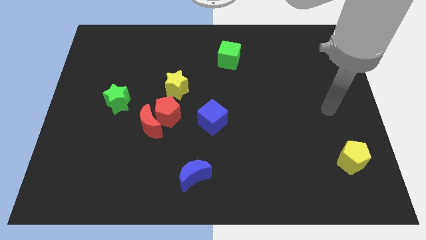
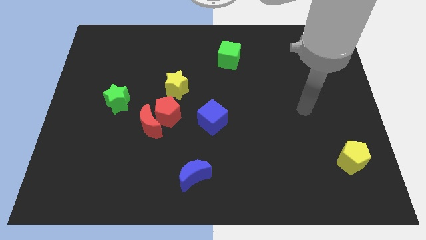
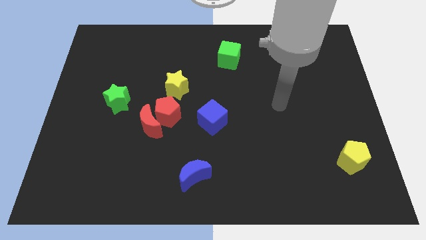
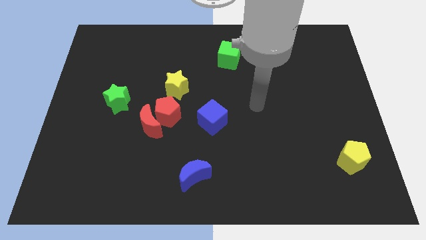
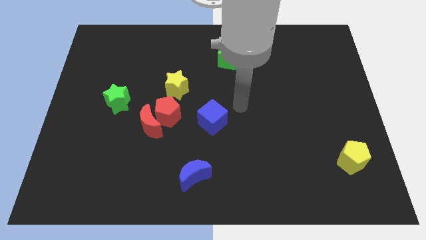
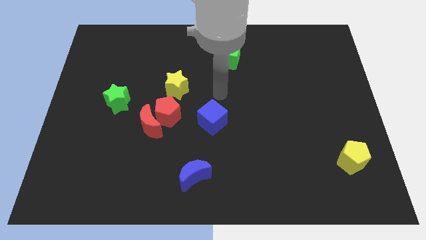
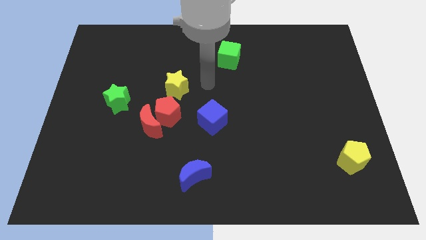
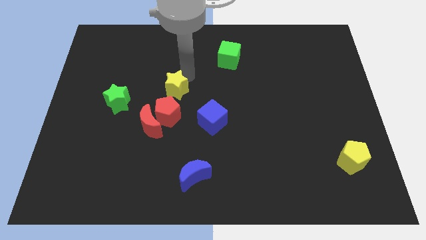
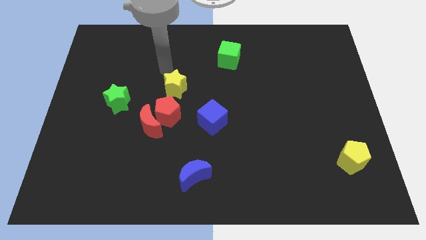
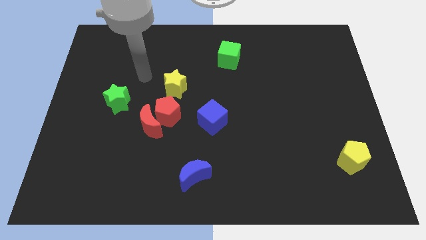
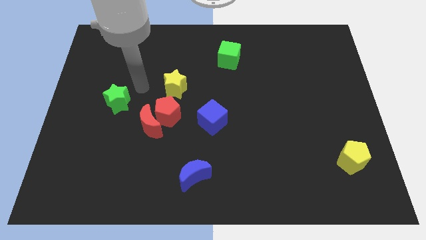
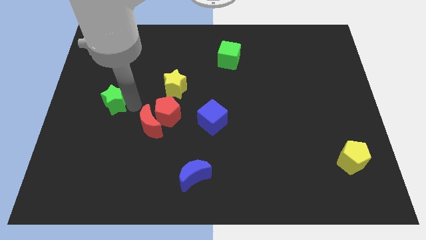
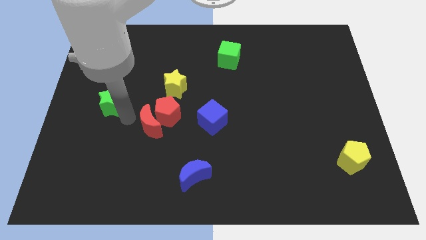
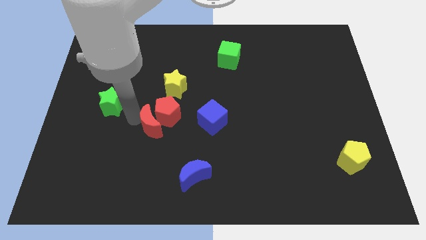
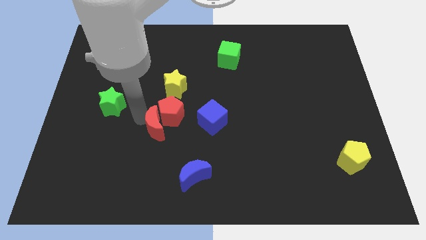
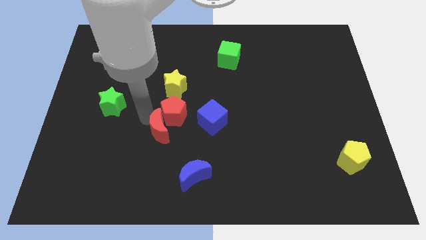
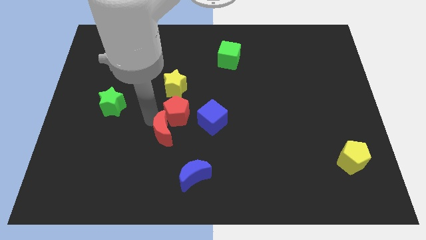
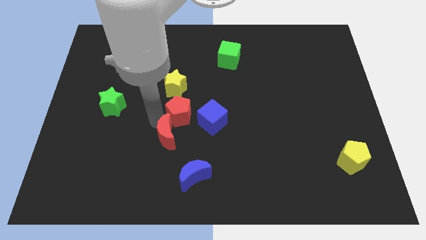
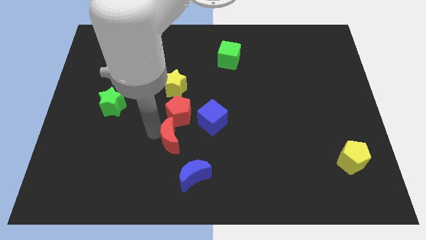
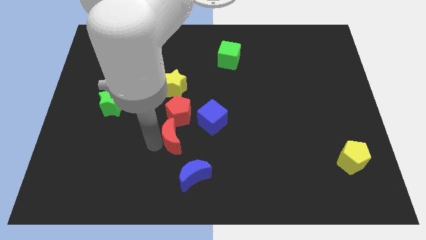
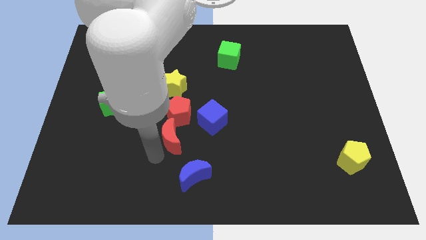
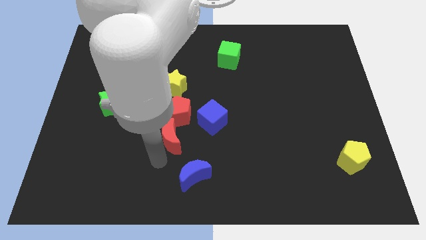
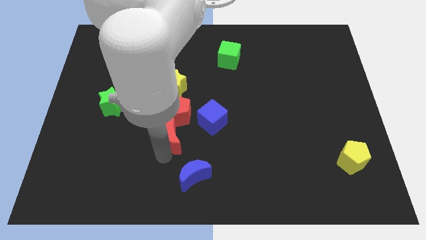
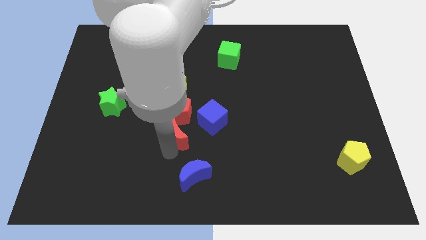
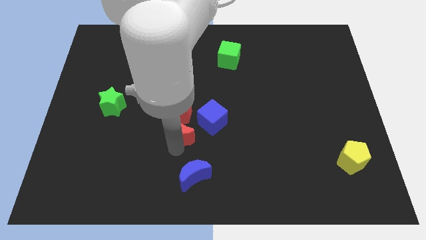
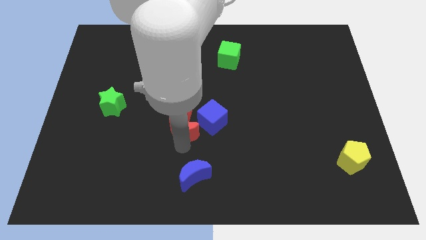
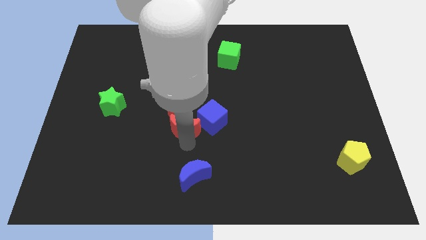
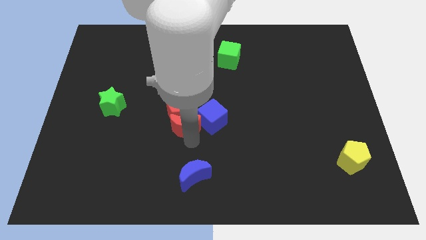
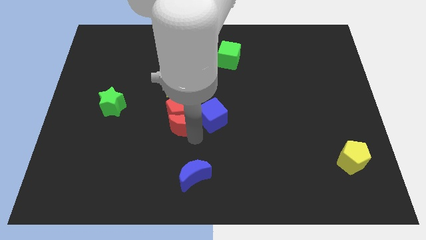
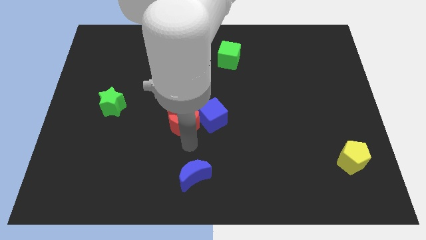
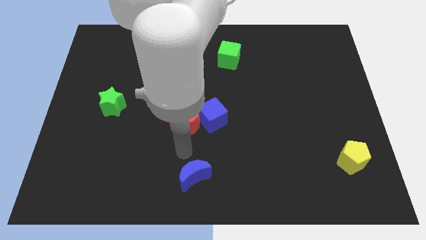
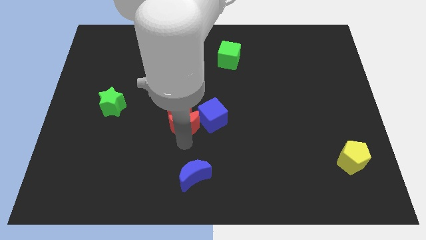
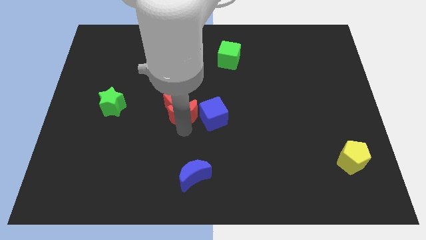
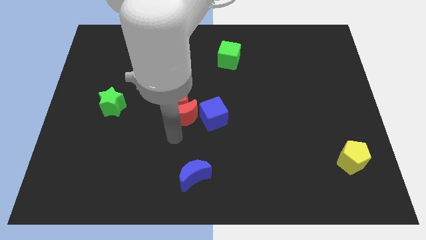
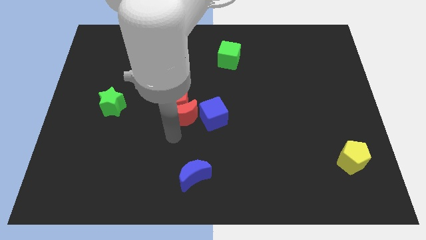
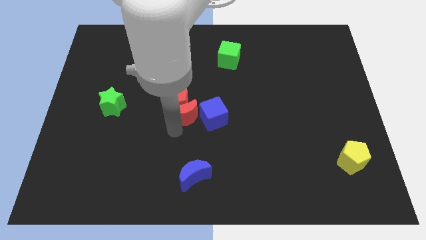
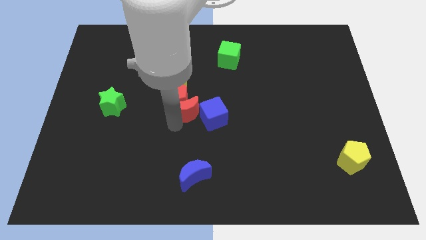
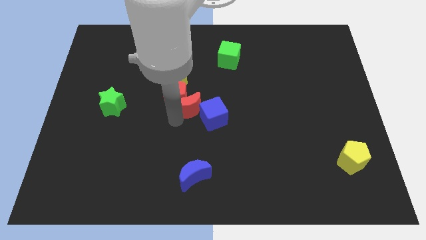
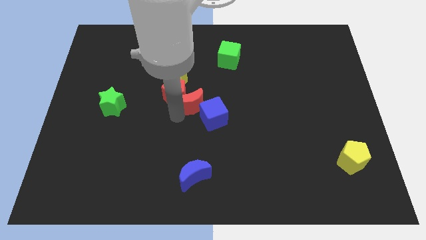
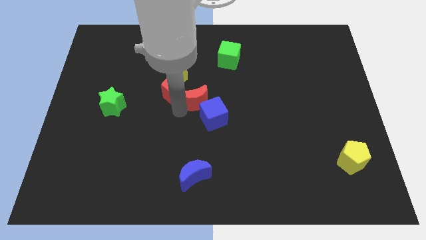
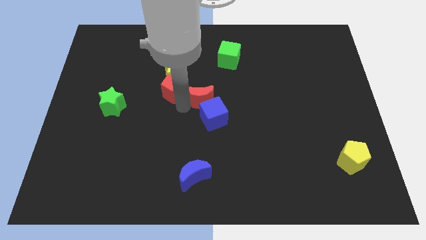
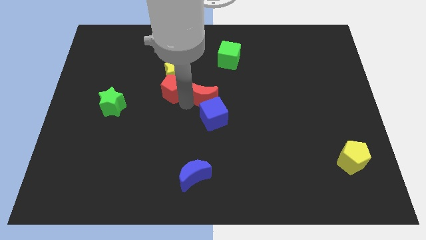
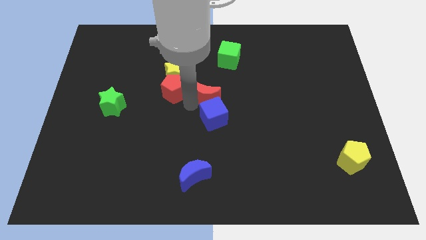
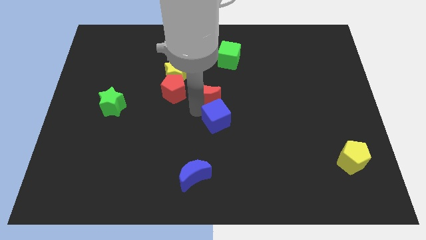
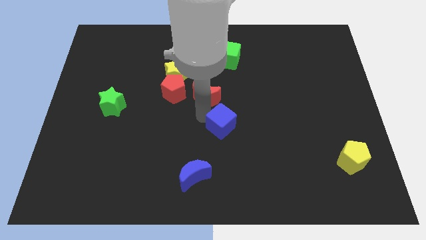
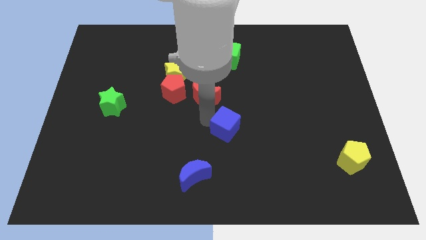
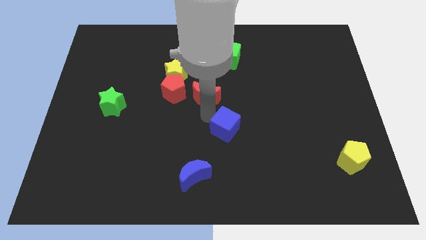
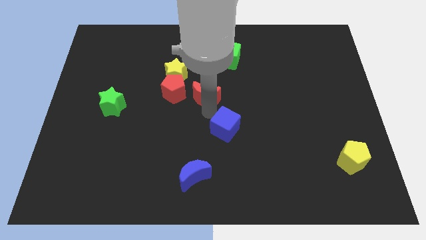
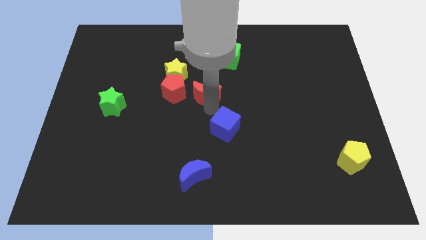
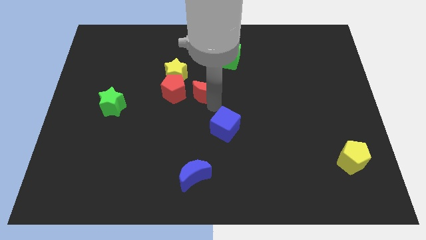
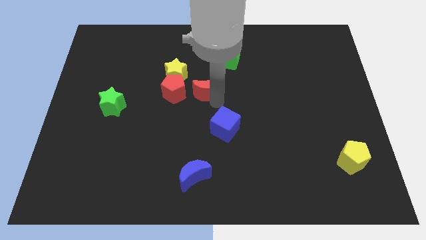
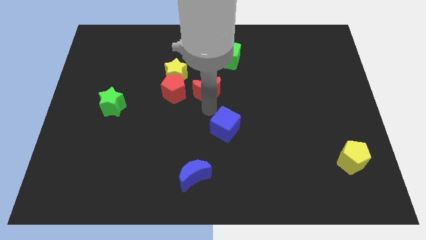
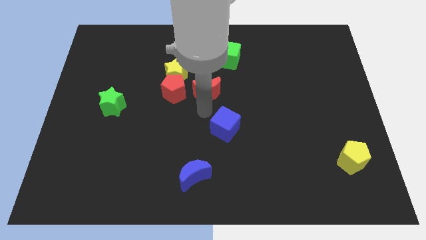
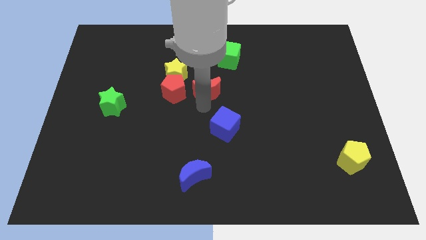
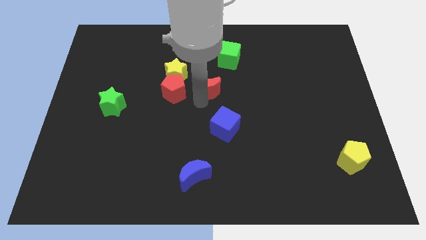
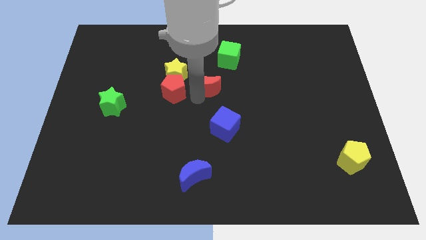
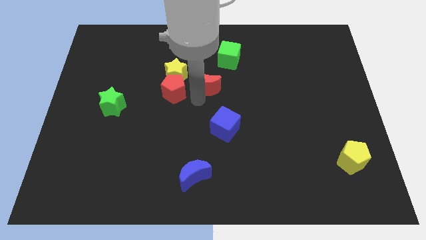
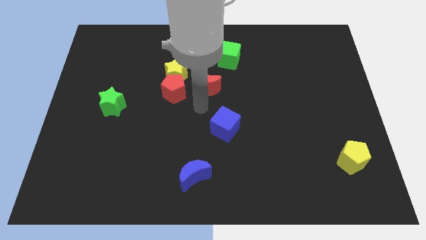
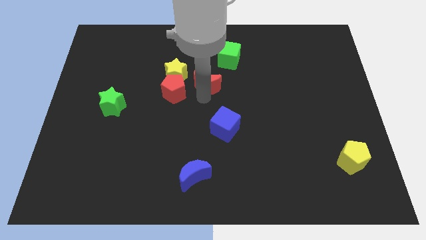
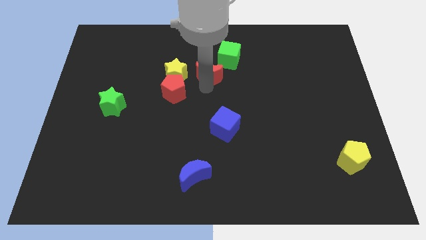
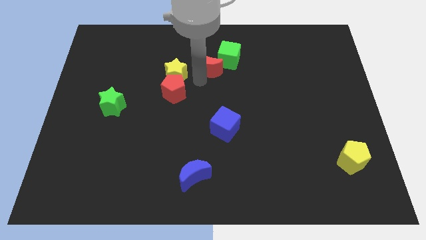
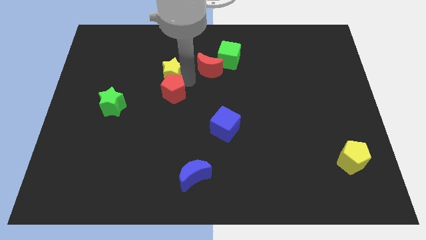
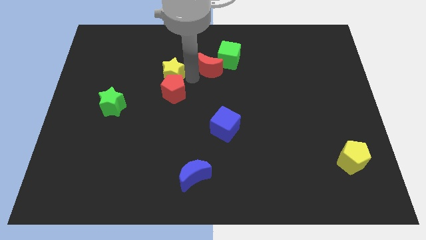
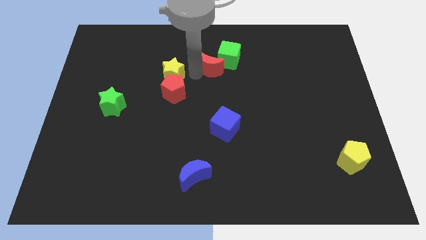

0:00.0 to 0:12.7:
put the red moon to the green cube
